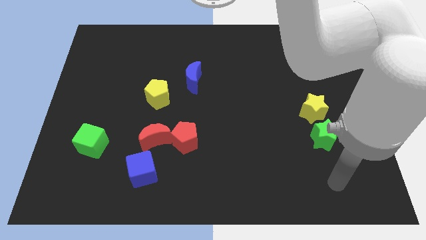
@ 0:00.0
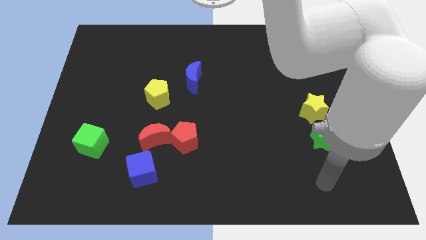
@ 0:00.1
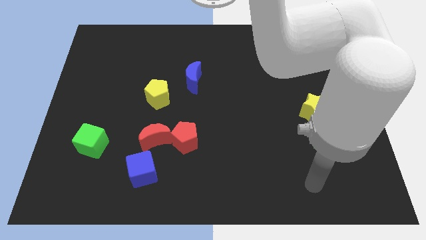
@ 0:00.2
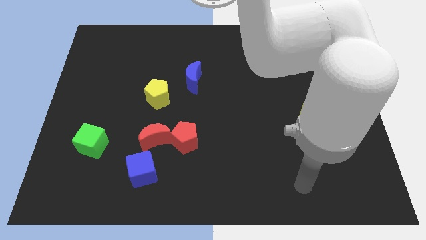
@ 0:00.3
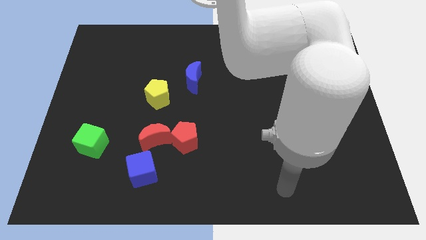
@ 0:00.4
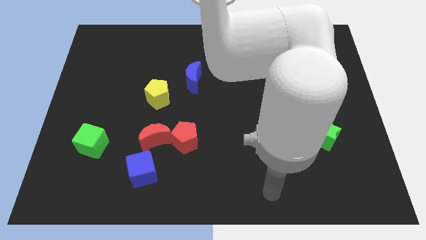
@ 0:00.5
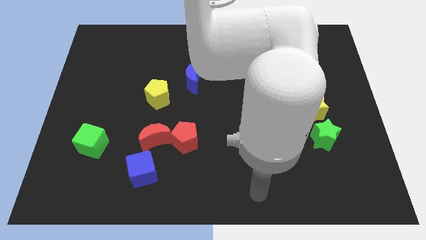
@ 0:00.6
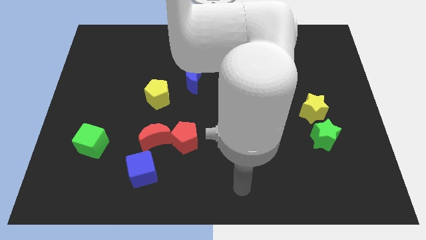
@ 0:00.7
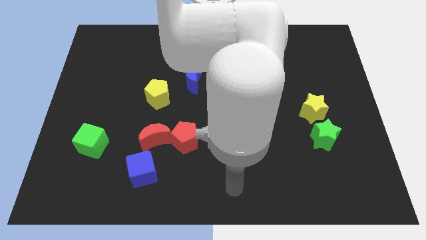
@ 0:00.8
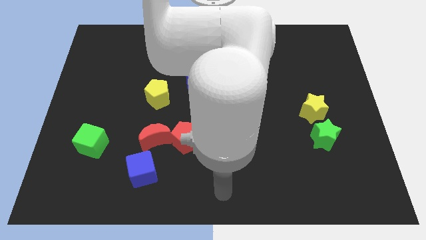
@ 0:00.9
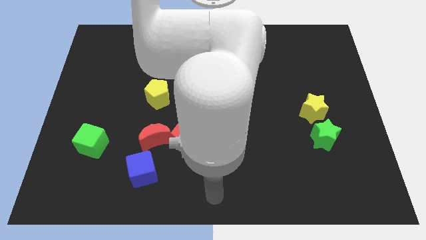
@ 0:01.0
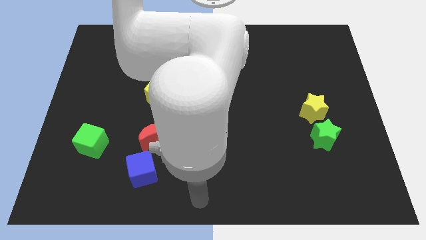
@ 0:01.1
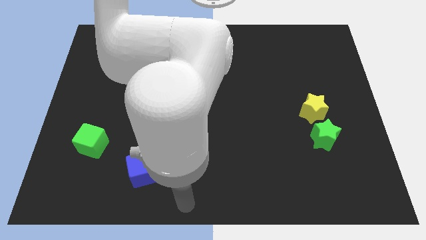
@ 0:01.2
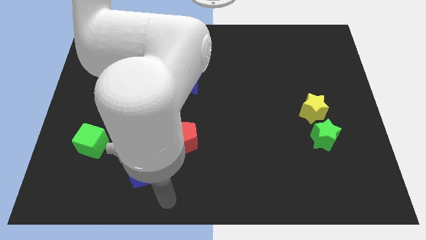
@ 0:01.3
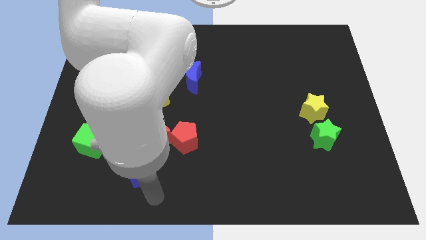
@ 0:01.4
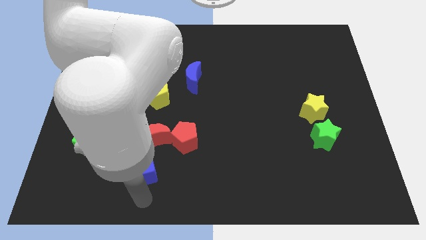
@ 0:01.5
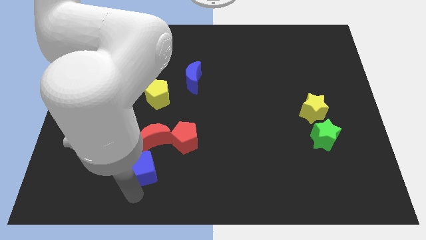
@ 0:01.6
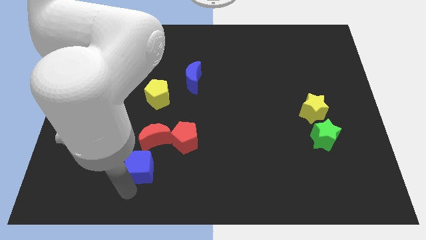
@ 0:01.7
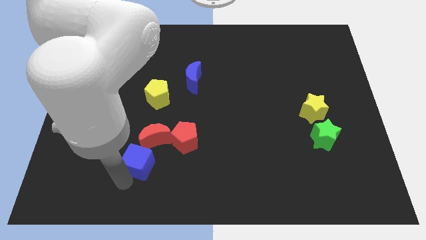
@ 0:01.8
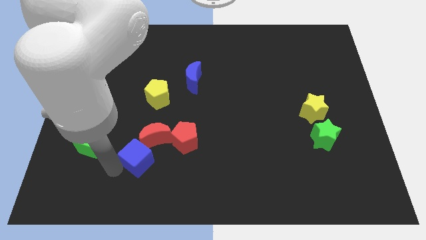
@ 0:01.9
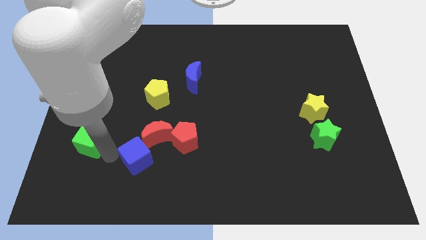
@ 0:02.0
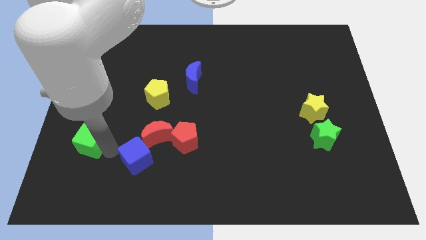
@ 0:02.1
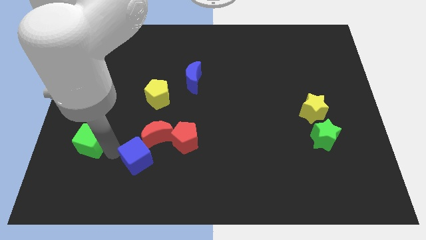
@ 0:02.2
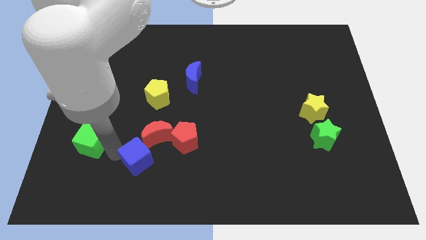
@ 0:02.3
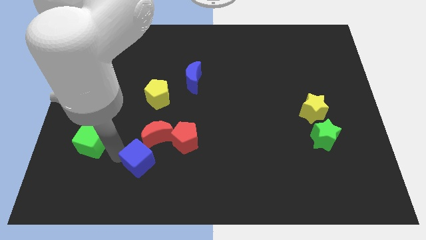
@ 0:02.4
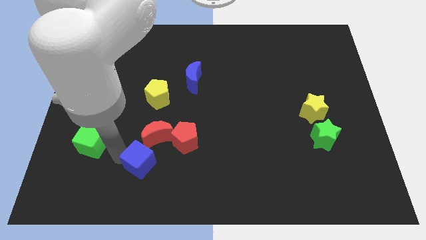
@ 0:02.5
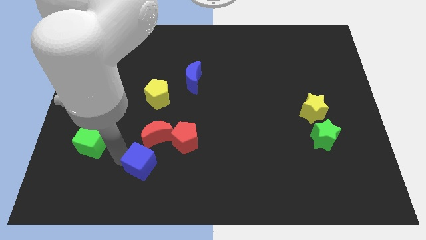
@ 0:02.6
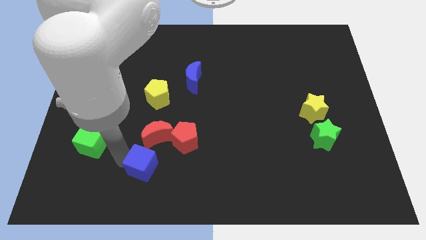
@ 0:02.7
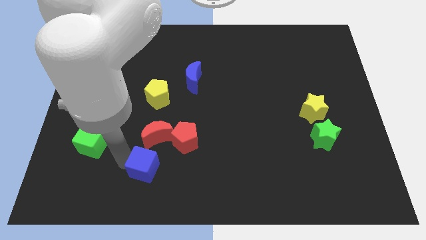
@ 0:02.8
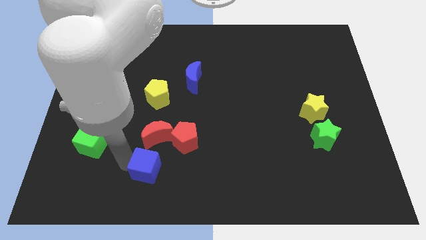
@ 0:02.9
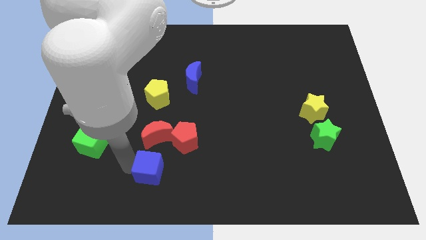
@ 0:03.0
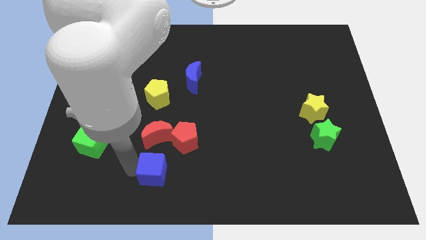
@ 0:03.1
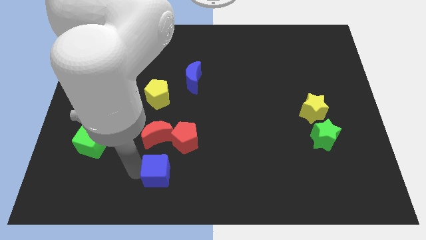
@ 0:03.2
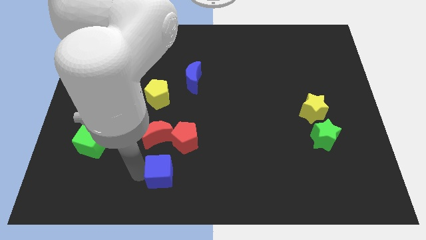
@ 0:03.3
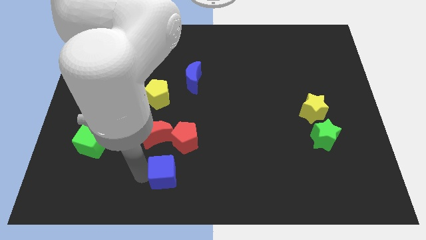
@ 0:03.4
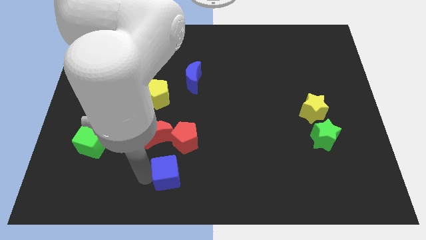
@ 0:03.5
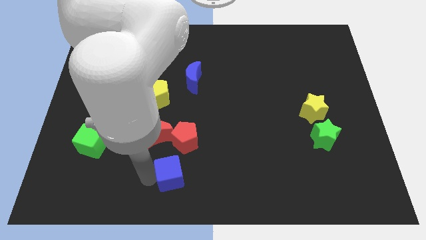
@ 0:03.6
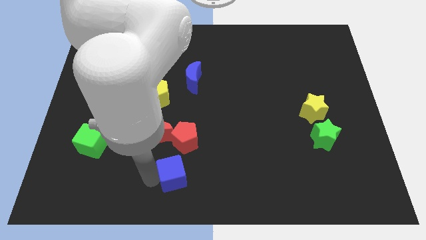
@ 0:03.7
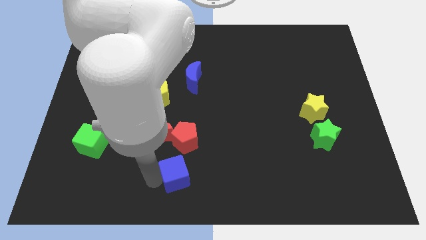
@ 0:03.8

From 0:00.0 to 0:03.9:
push the blue cube to the right a little bit

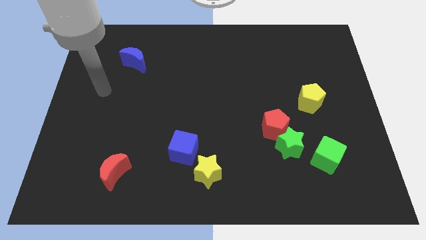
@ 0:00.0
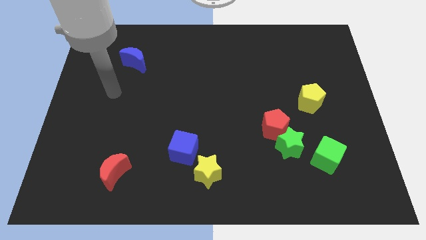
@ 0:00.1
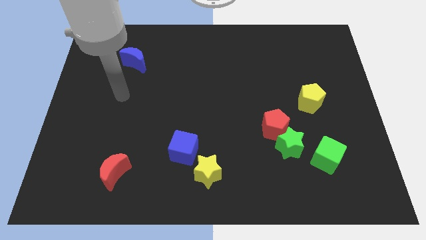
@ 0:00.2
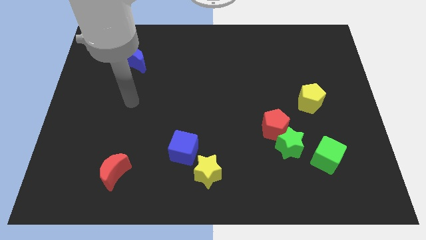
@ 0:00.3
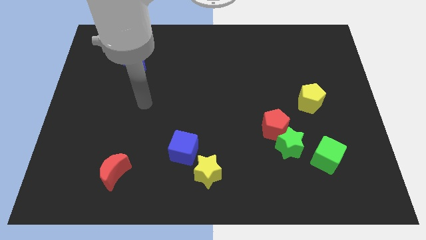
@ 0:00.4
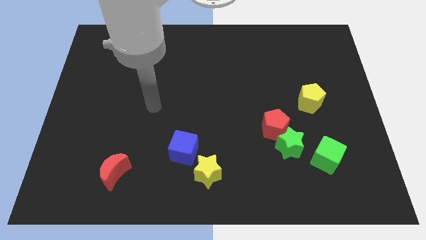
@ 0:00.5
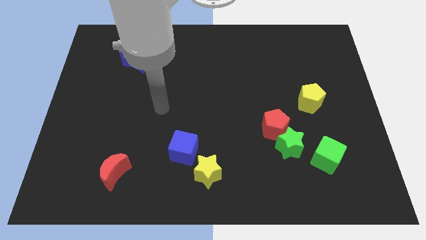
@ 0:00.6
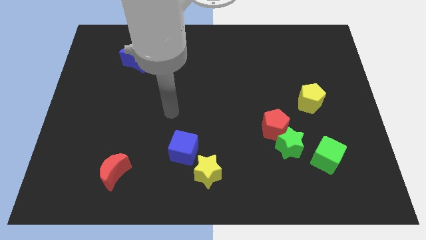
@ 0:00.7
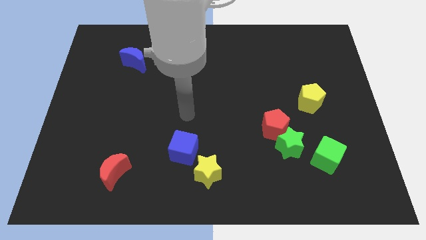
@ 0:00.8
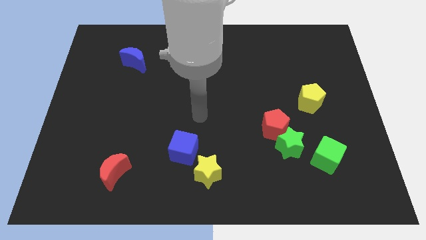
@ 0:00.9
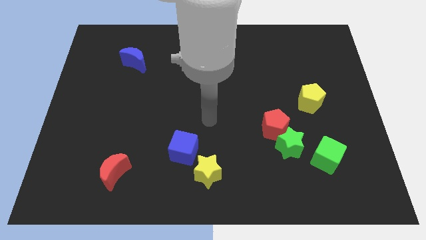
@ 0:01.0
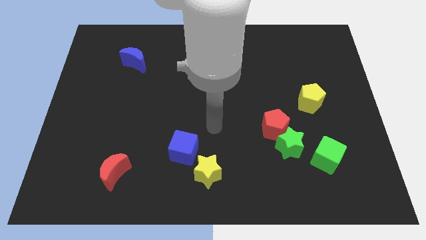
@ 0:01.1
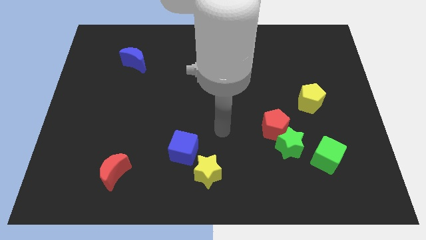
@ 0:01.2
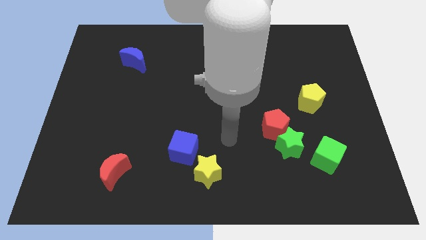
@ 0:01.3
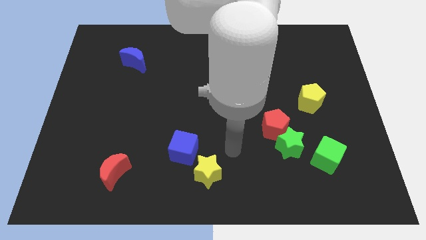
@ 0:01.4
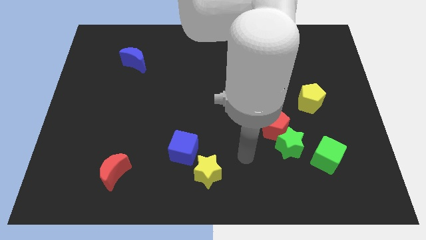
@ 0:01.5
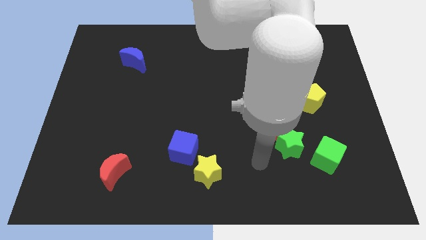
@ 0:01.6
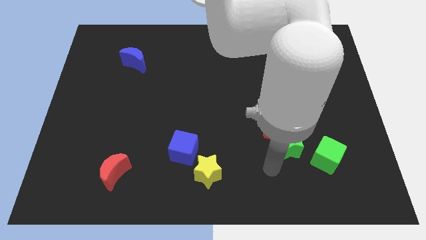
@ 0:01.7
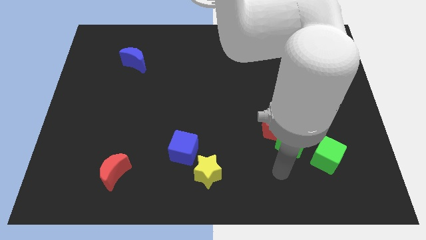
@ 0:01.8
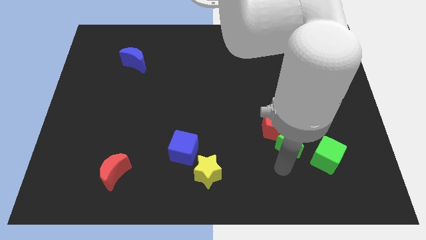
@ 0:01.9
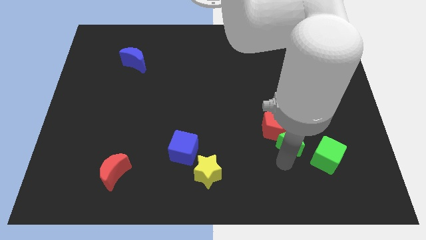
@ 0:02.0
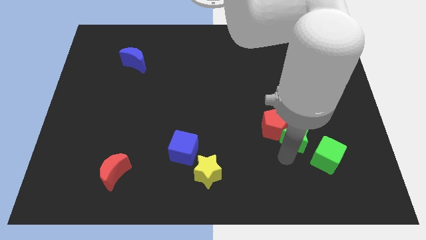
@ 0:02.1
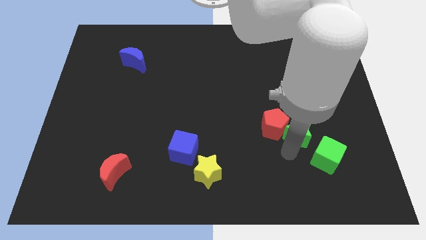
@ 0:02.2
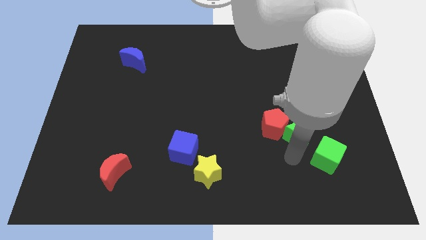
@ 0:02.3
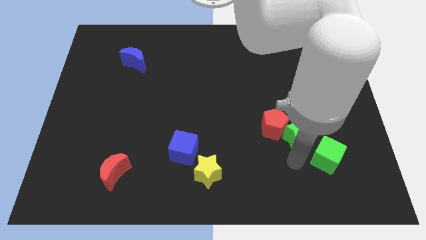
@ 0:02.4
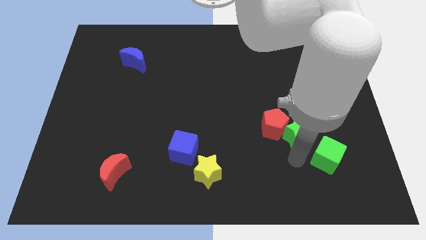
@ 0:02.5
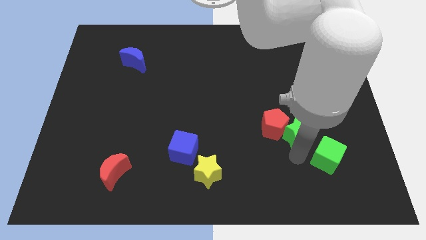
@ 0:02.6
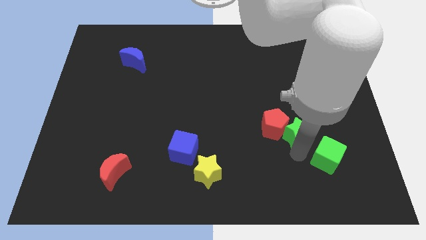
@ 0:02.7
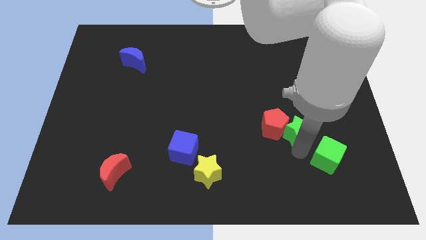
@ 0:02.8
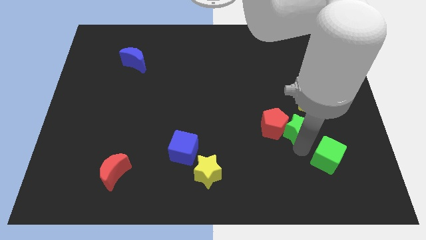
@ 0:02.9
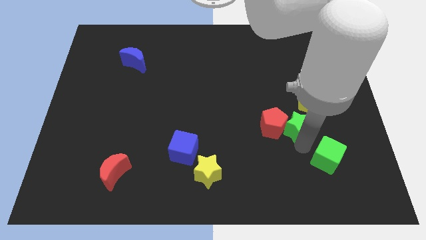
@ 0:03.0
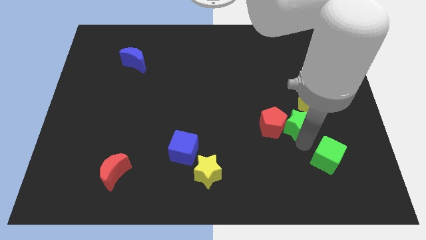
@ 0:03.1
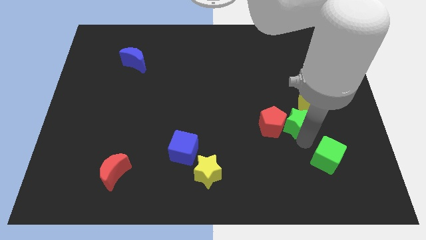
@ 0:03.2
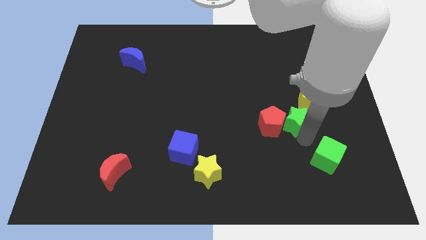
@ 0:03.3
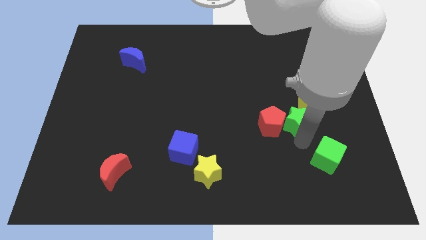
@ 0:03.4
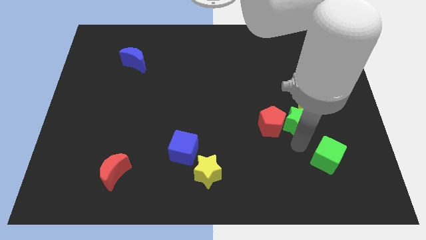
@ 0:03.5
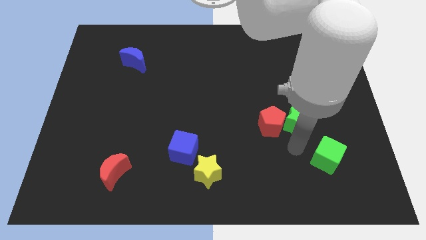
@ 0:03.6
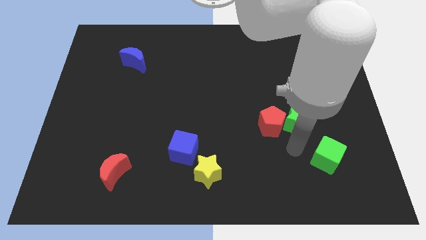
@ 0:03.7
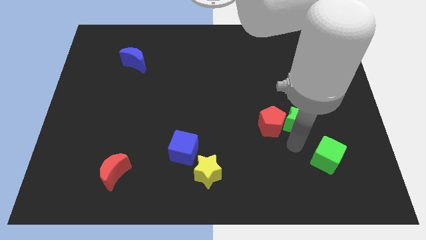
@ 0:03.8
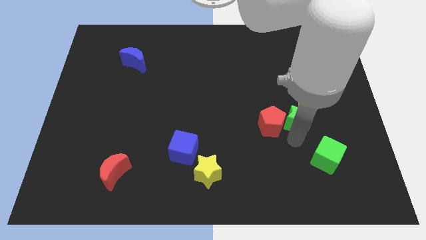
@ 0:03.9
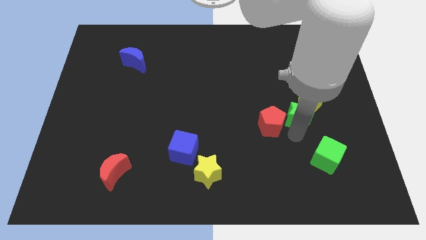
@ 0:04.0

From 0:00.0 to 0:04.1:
slightly move the green star upwards
